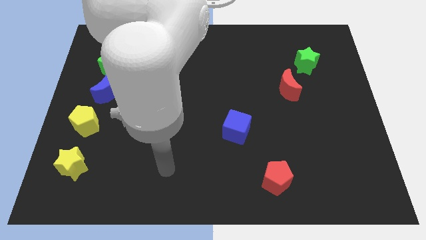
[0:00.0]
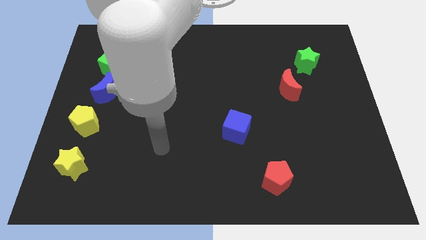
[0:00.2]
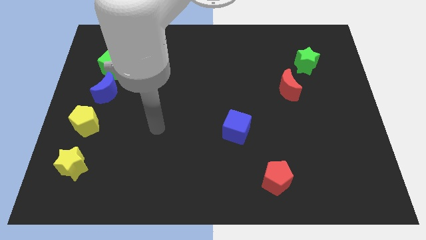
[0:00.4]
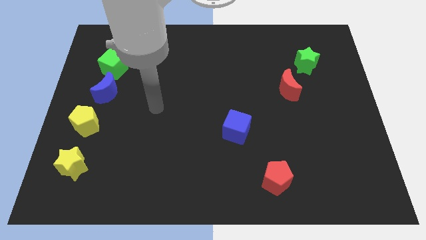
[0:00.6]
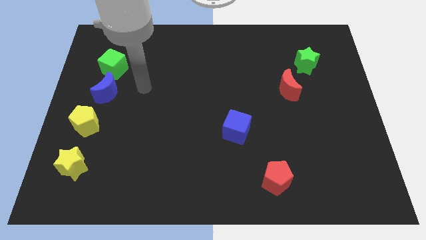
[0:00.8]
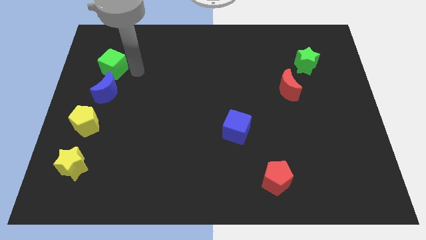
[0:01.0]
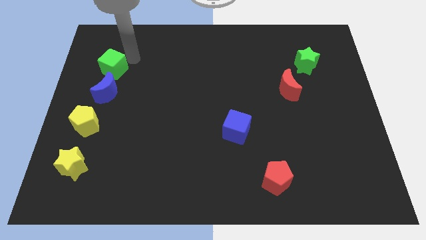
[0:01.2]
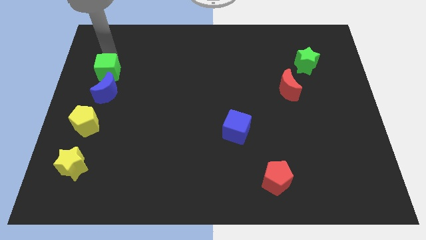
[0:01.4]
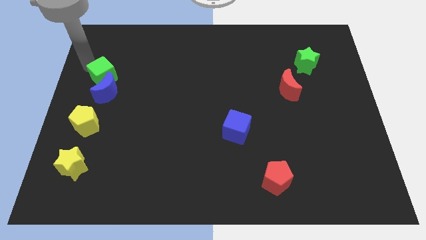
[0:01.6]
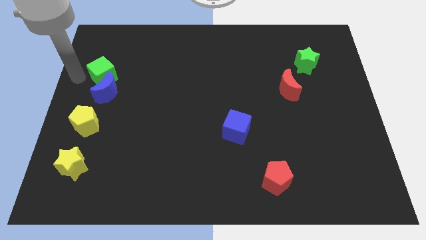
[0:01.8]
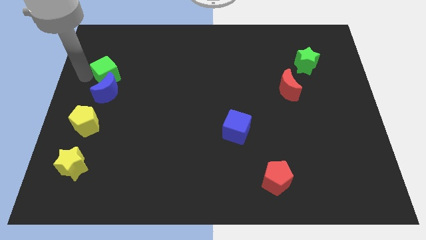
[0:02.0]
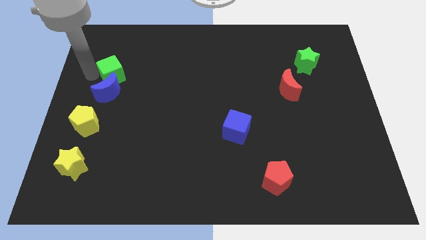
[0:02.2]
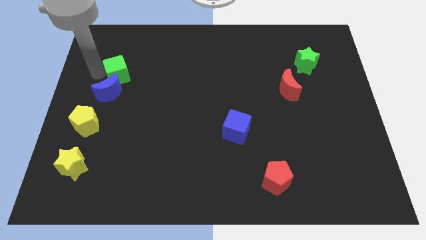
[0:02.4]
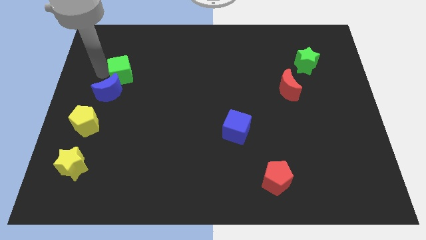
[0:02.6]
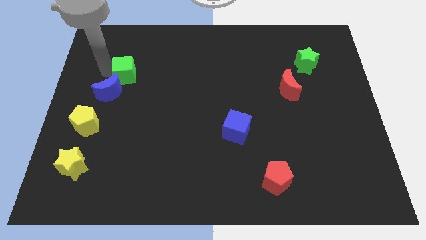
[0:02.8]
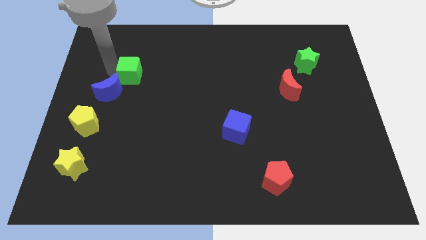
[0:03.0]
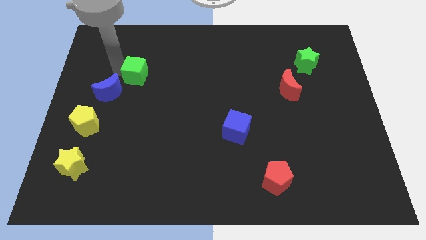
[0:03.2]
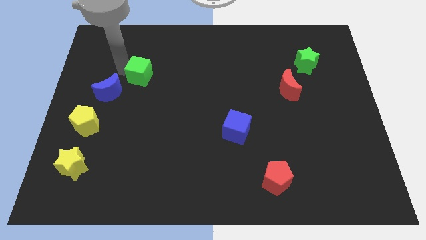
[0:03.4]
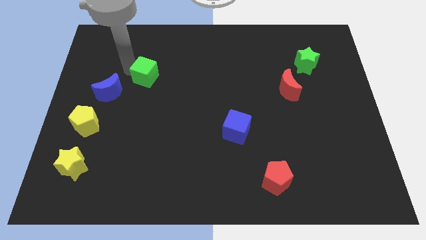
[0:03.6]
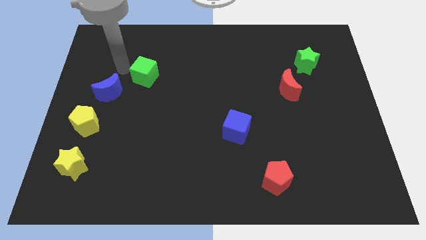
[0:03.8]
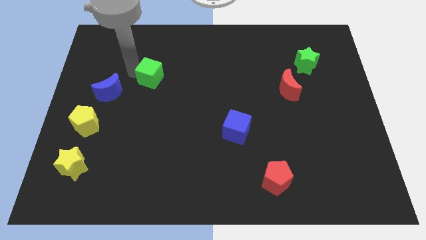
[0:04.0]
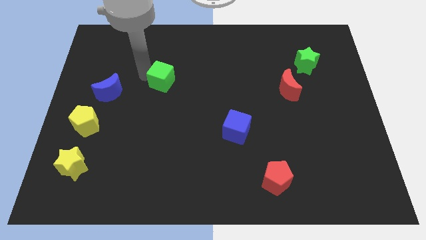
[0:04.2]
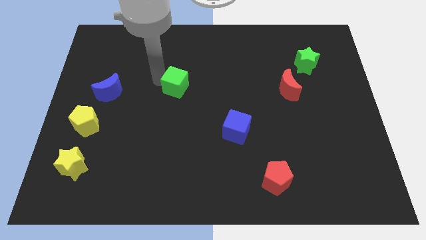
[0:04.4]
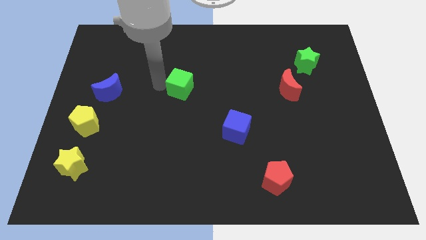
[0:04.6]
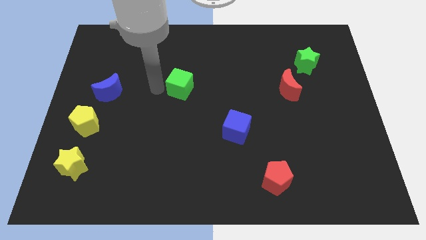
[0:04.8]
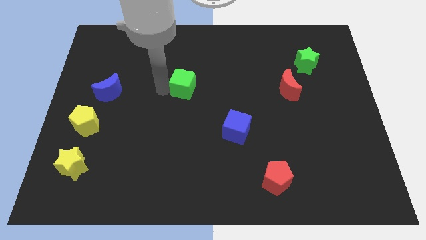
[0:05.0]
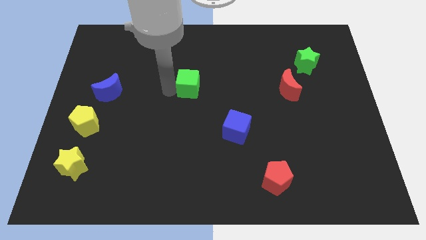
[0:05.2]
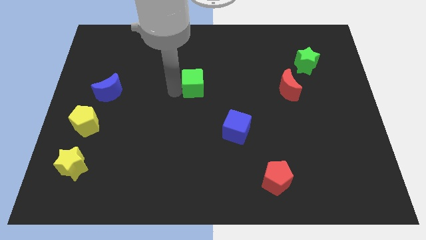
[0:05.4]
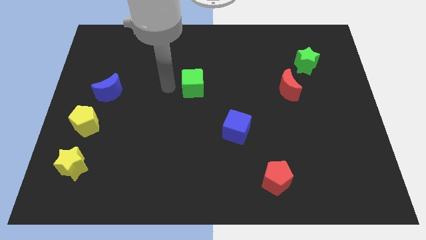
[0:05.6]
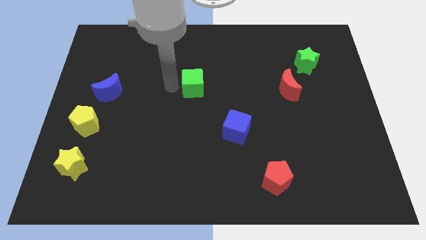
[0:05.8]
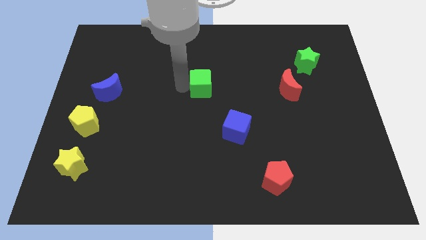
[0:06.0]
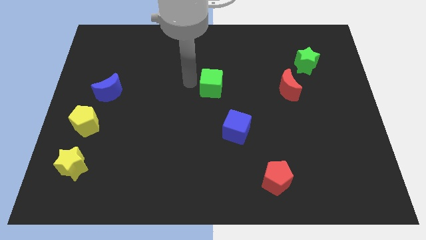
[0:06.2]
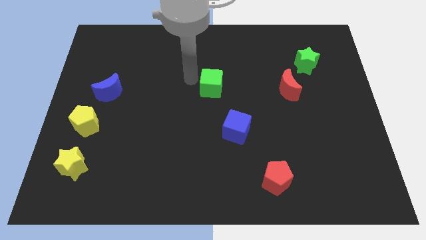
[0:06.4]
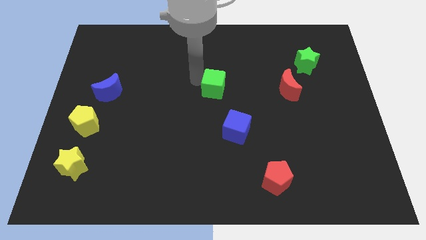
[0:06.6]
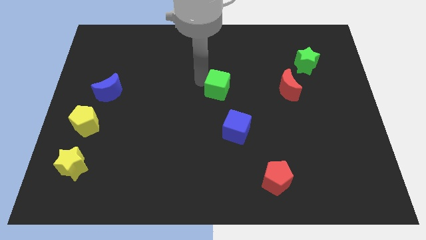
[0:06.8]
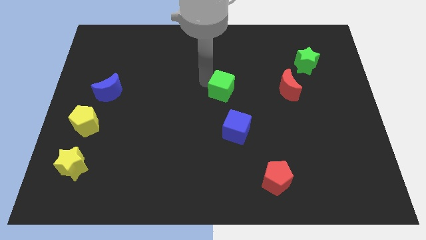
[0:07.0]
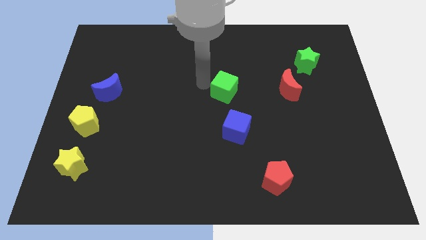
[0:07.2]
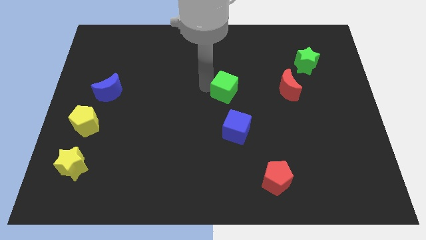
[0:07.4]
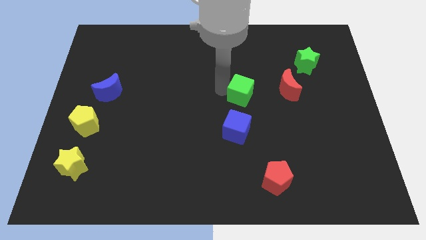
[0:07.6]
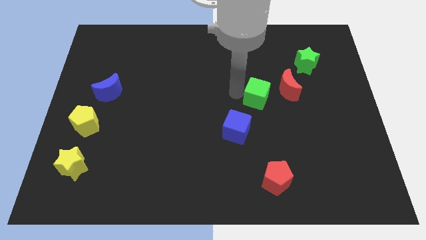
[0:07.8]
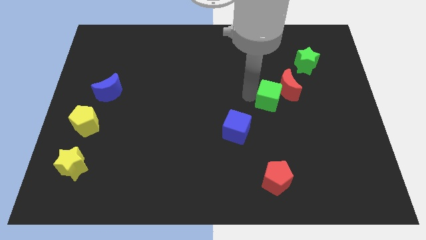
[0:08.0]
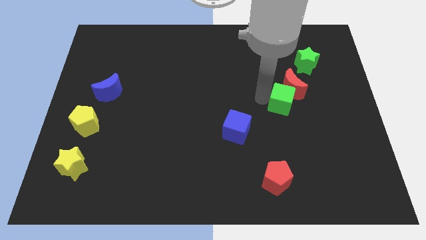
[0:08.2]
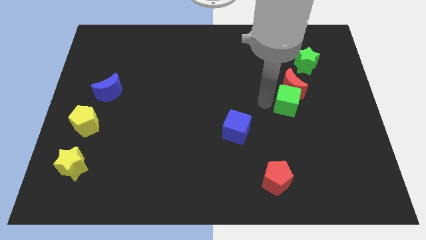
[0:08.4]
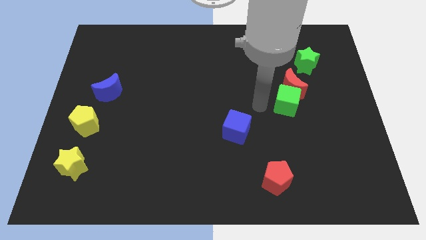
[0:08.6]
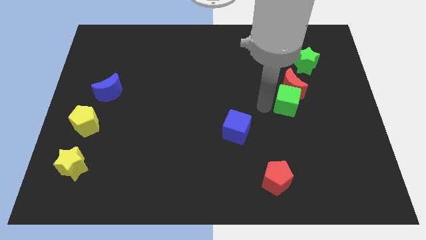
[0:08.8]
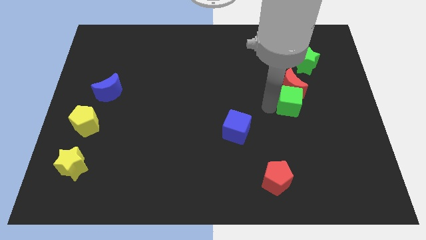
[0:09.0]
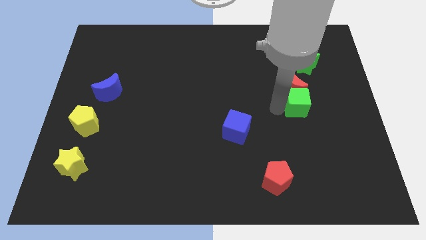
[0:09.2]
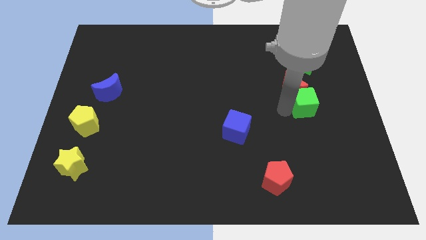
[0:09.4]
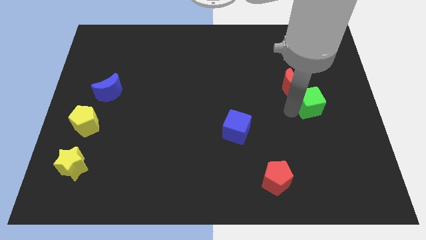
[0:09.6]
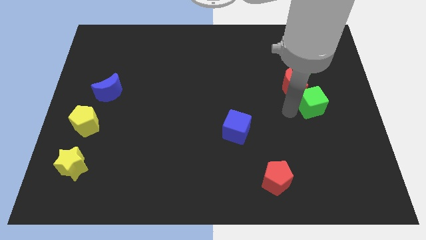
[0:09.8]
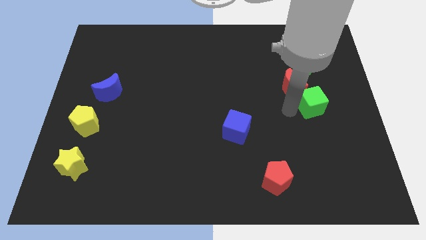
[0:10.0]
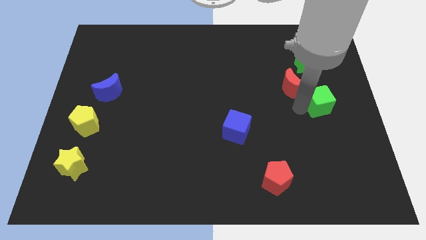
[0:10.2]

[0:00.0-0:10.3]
move the green cube to the center right

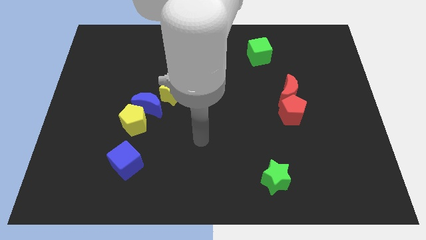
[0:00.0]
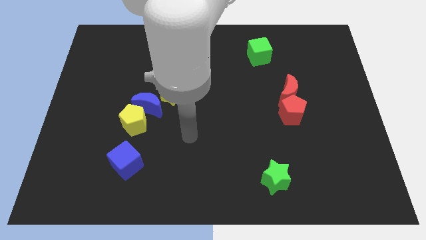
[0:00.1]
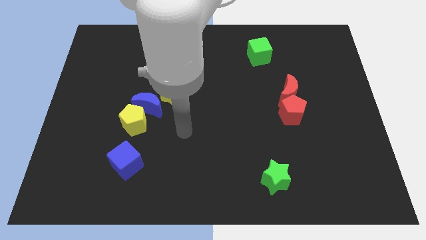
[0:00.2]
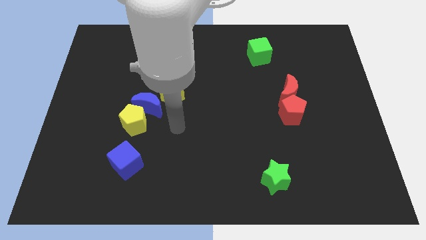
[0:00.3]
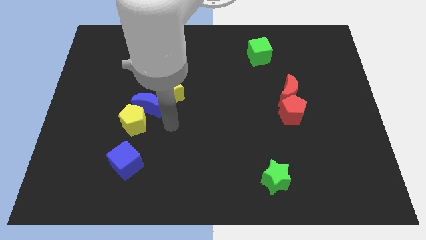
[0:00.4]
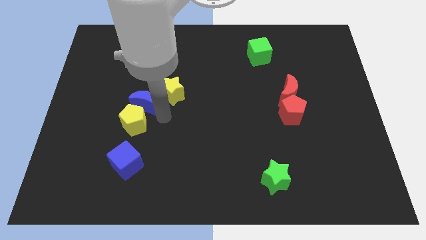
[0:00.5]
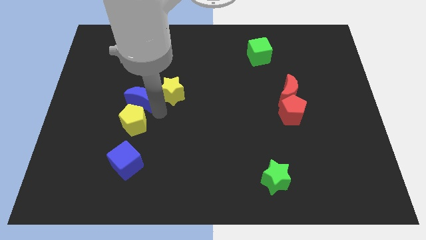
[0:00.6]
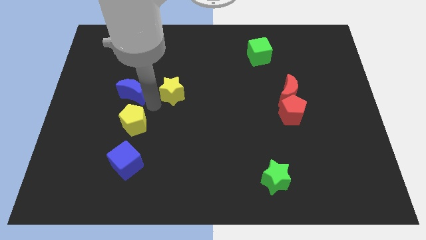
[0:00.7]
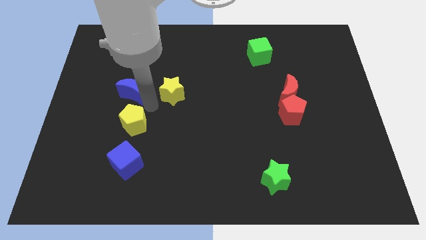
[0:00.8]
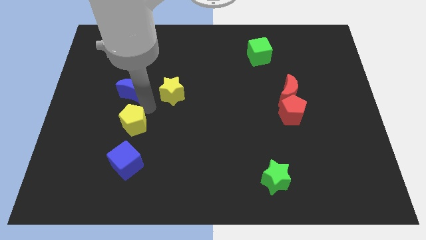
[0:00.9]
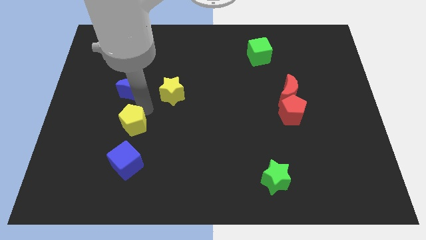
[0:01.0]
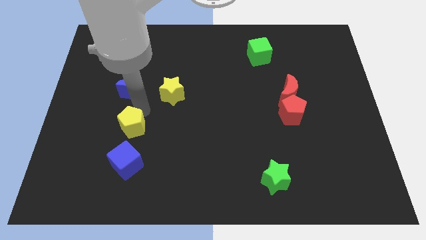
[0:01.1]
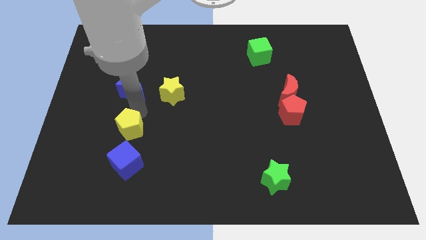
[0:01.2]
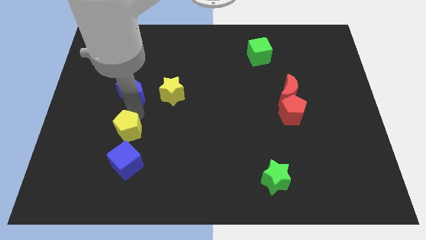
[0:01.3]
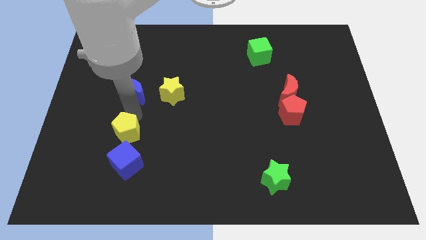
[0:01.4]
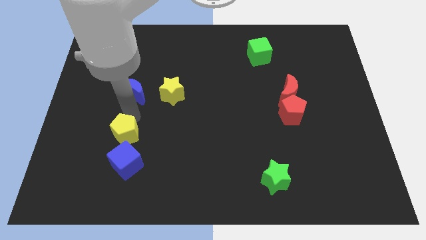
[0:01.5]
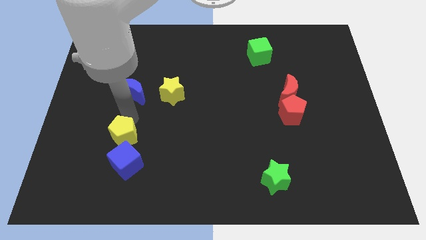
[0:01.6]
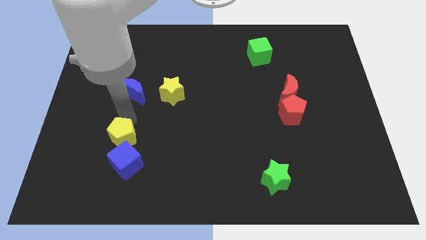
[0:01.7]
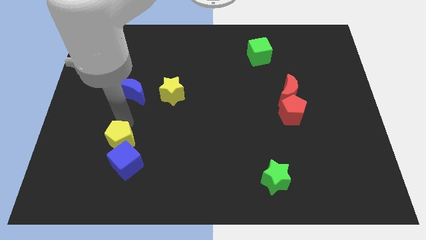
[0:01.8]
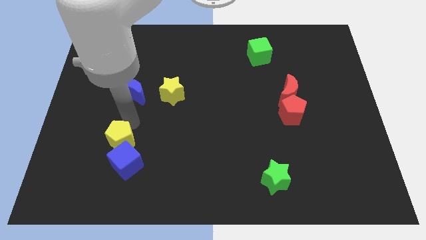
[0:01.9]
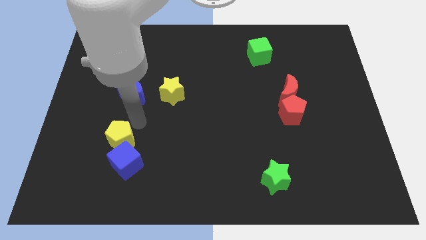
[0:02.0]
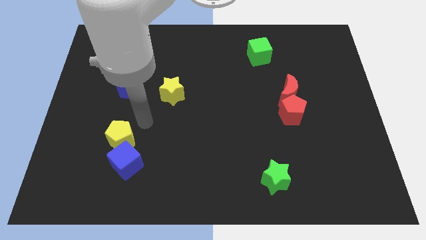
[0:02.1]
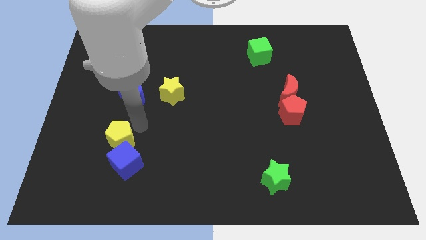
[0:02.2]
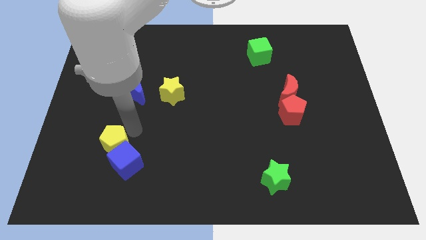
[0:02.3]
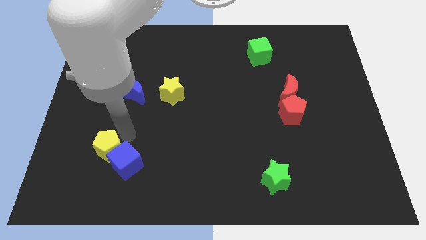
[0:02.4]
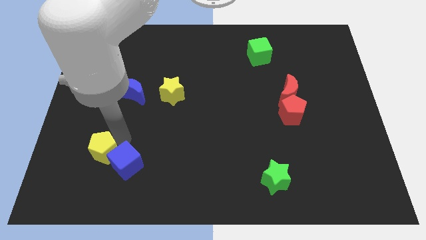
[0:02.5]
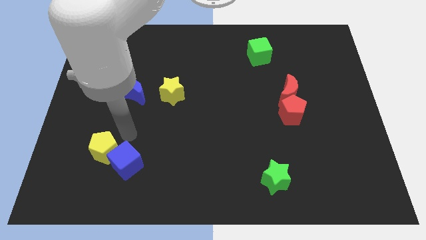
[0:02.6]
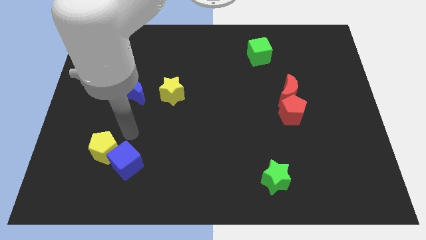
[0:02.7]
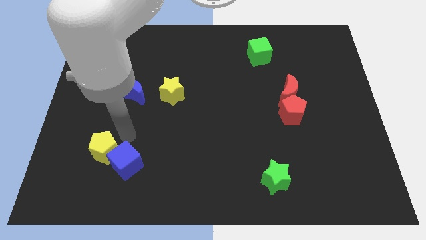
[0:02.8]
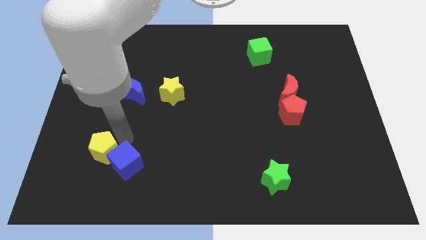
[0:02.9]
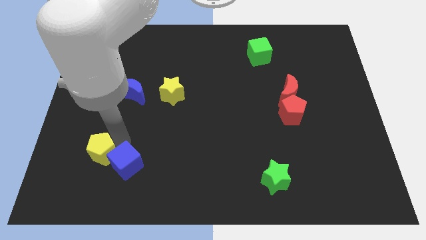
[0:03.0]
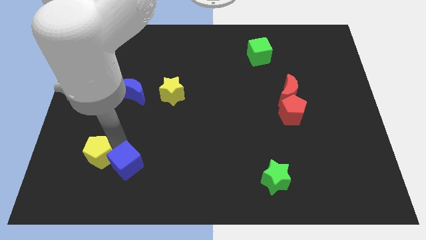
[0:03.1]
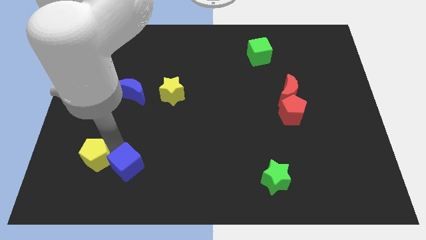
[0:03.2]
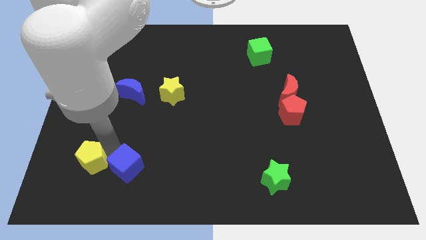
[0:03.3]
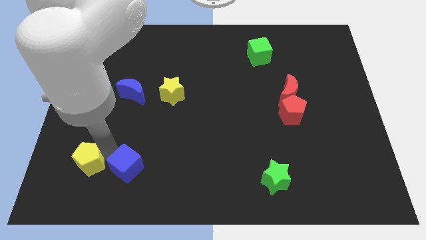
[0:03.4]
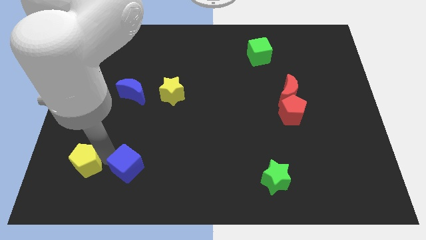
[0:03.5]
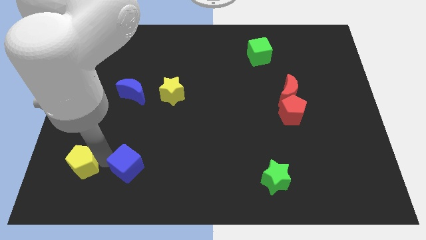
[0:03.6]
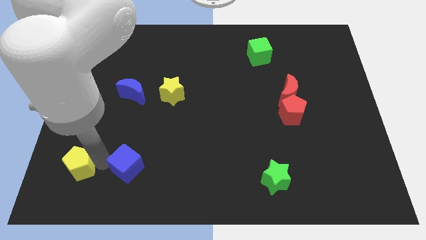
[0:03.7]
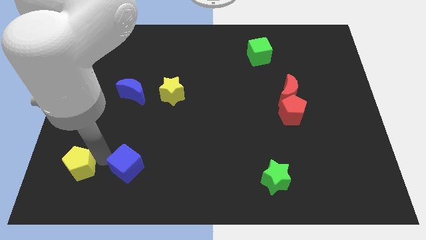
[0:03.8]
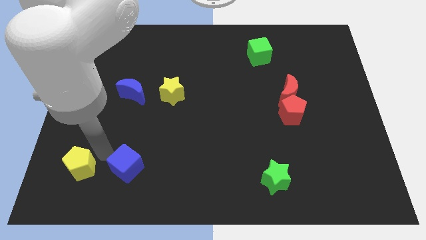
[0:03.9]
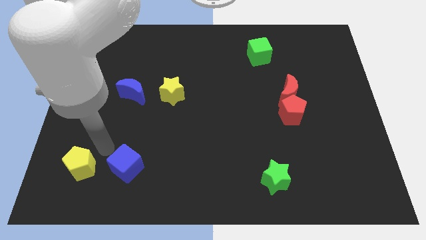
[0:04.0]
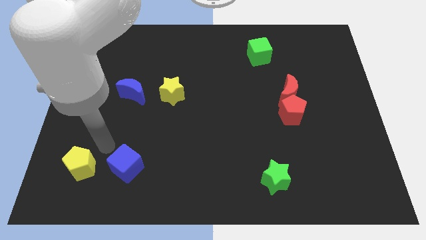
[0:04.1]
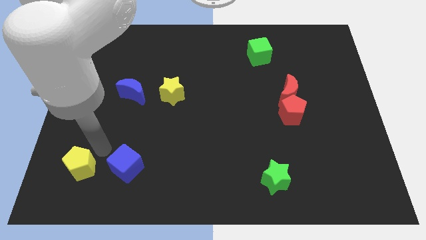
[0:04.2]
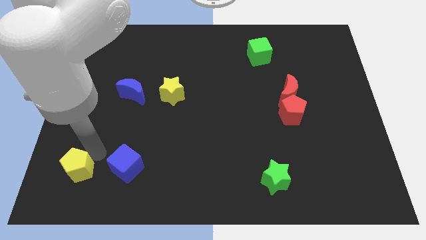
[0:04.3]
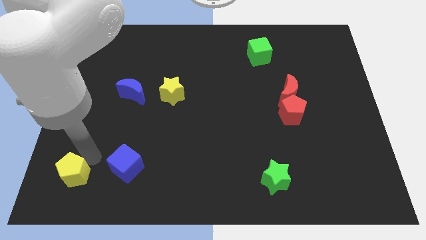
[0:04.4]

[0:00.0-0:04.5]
slide the yellow pentagon to the bottom left corner
